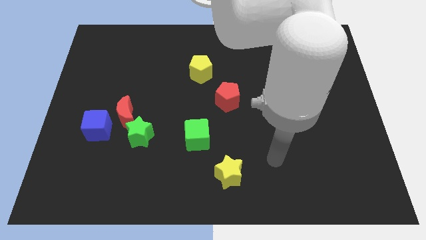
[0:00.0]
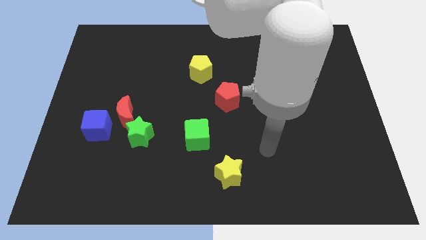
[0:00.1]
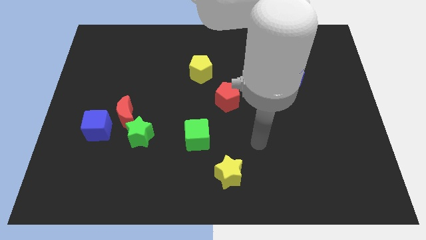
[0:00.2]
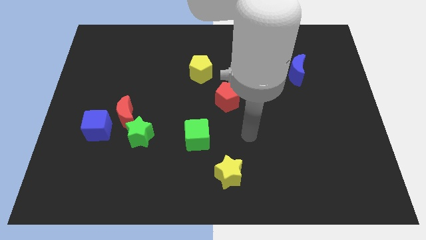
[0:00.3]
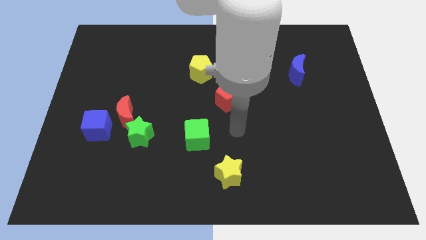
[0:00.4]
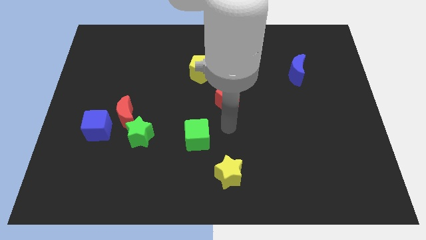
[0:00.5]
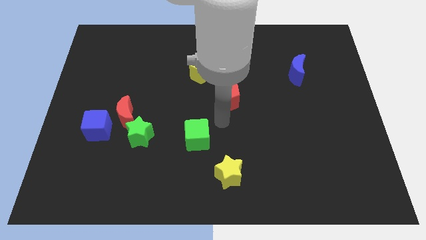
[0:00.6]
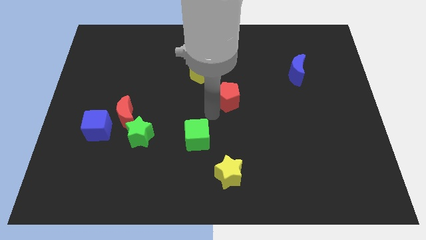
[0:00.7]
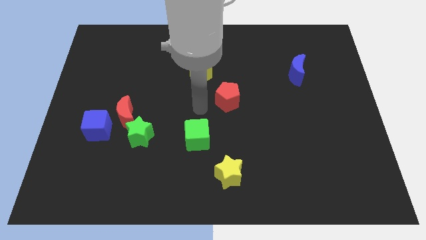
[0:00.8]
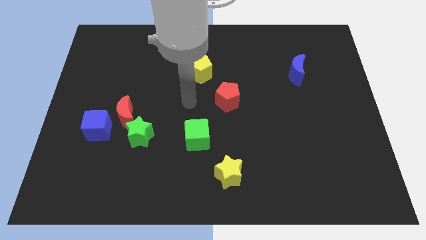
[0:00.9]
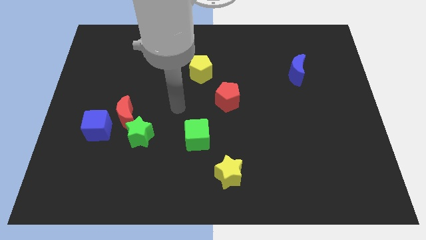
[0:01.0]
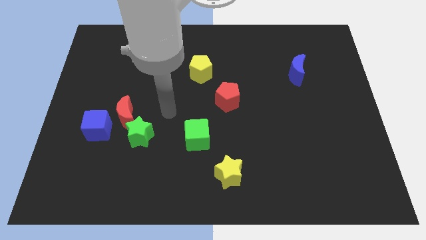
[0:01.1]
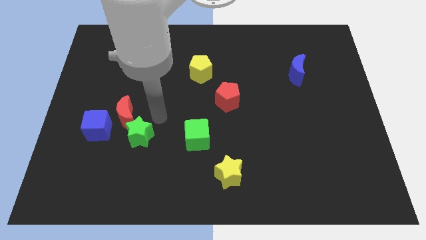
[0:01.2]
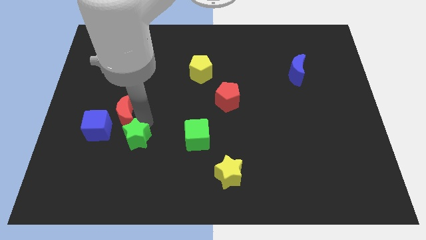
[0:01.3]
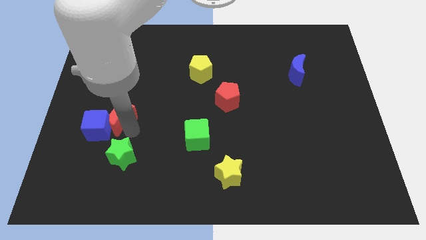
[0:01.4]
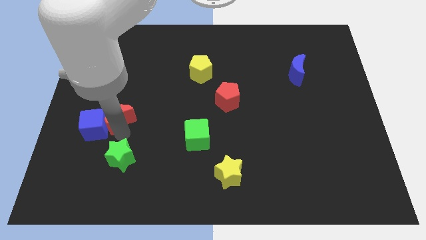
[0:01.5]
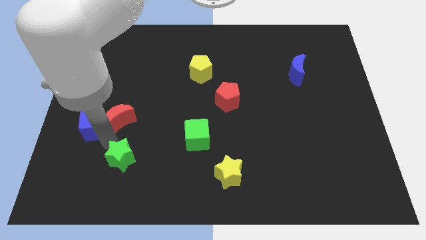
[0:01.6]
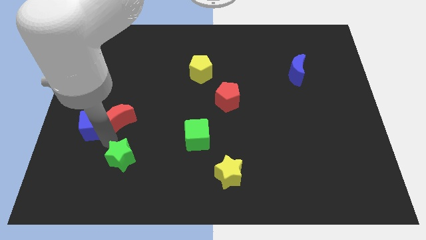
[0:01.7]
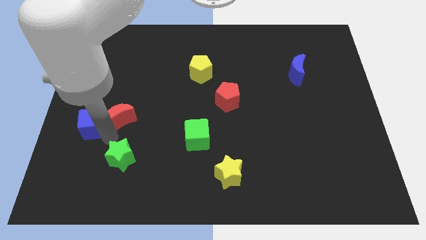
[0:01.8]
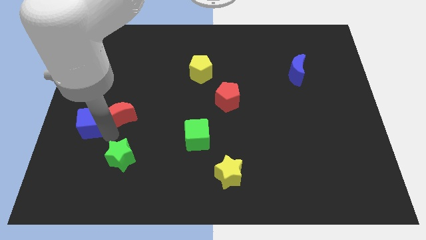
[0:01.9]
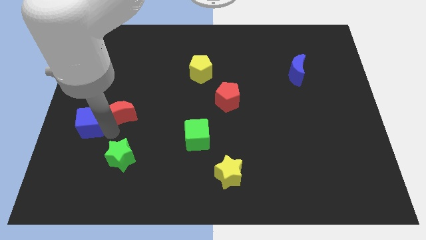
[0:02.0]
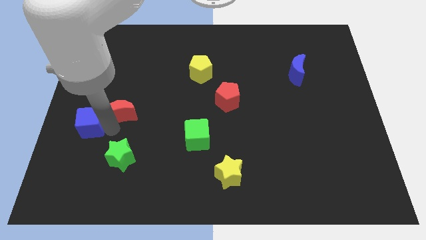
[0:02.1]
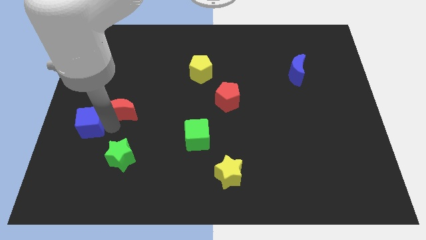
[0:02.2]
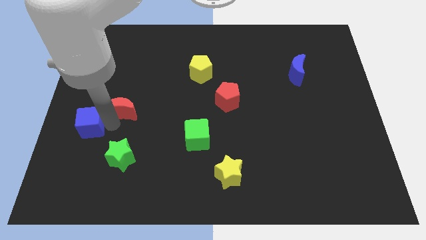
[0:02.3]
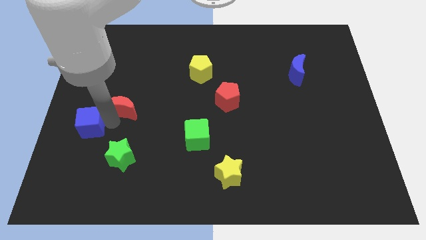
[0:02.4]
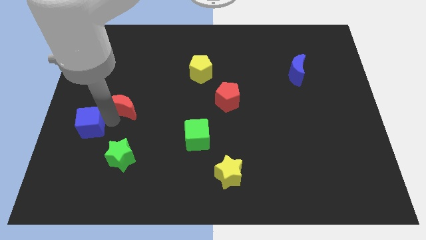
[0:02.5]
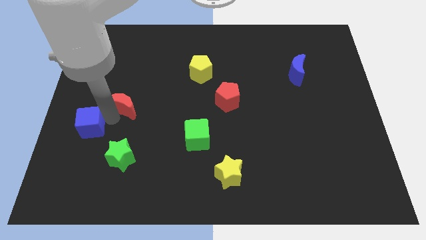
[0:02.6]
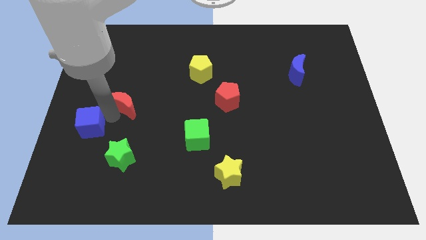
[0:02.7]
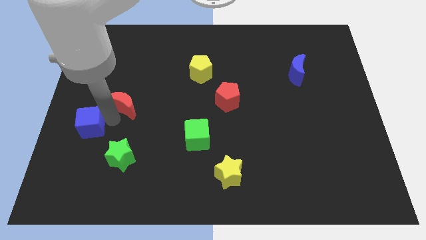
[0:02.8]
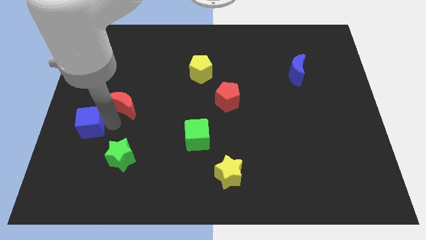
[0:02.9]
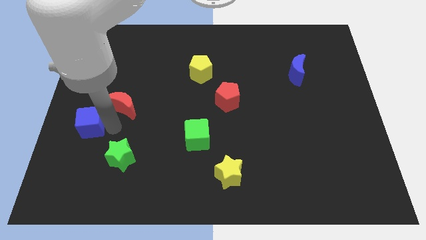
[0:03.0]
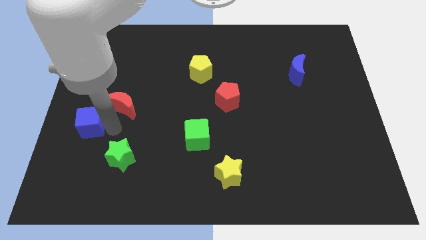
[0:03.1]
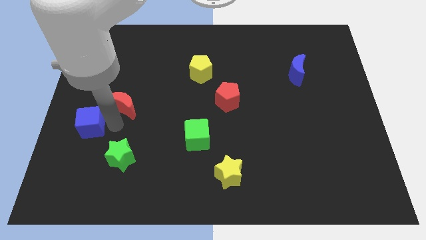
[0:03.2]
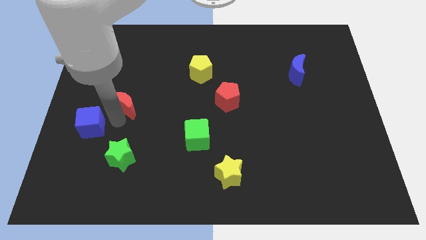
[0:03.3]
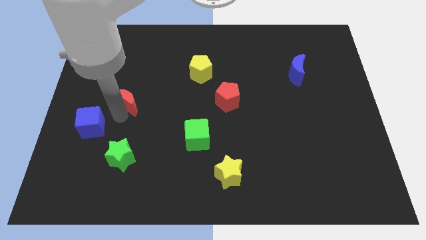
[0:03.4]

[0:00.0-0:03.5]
separate the red moon from the green star and blue cube

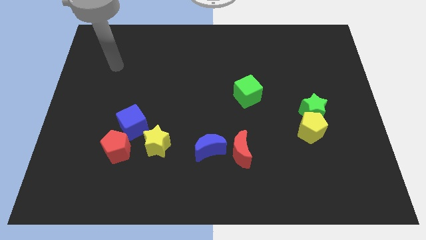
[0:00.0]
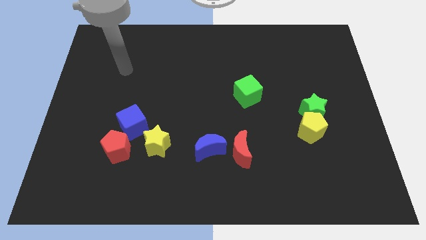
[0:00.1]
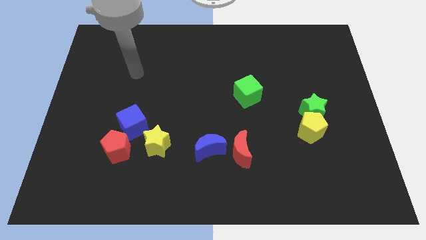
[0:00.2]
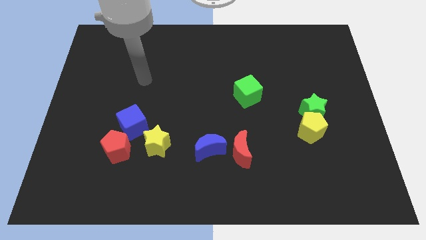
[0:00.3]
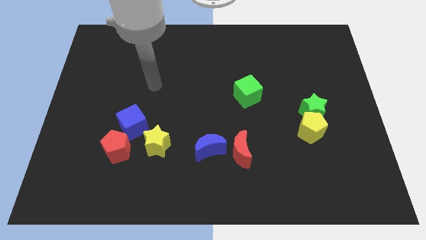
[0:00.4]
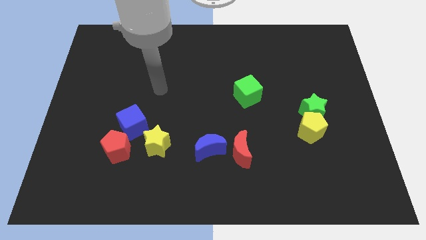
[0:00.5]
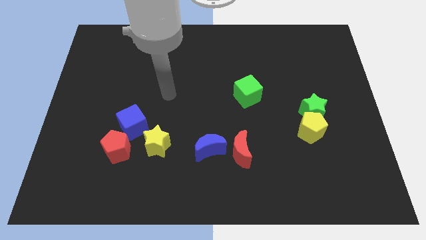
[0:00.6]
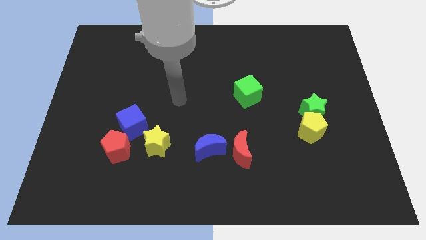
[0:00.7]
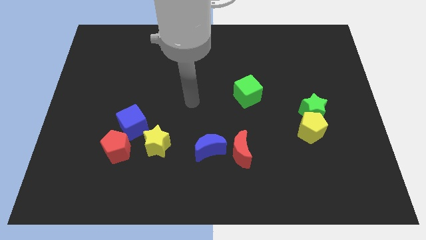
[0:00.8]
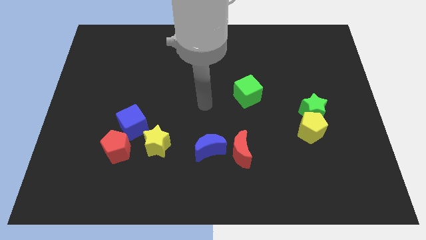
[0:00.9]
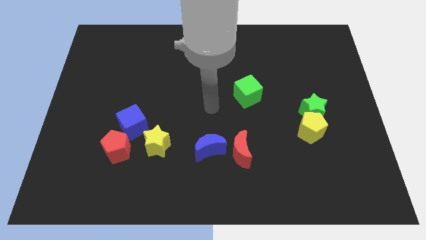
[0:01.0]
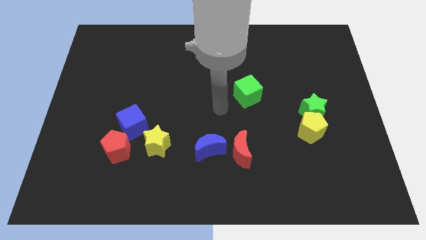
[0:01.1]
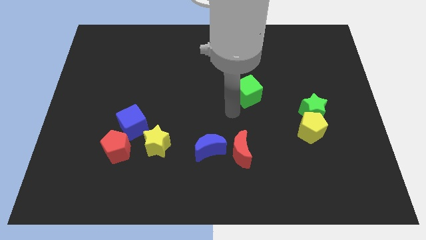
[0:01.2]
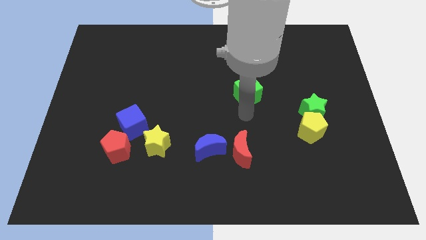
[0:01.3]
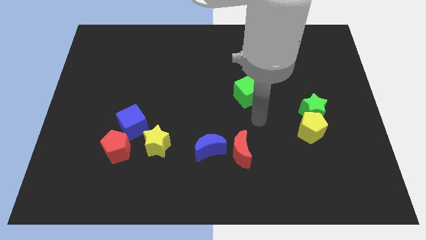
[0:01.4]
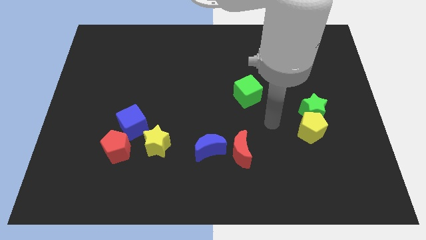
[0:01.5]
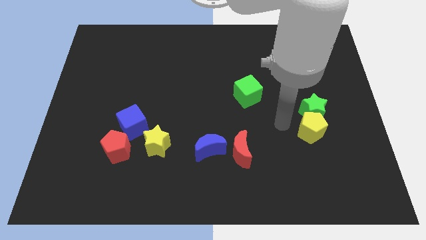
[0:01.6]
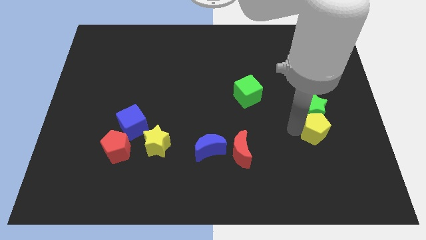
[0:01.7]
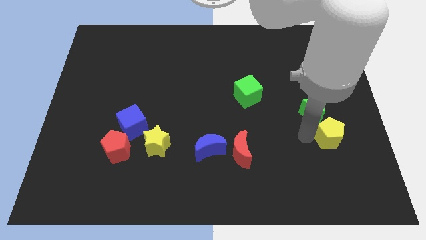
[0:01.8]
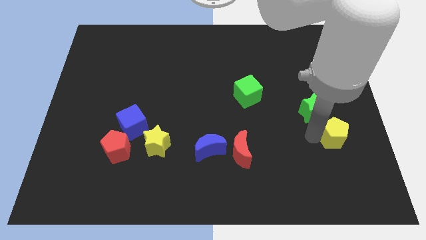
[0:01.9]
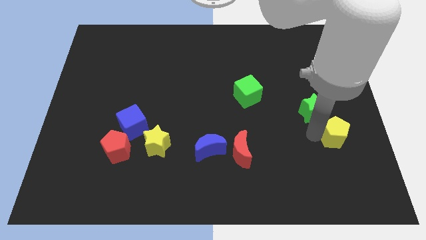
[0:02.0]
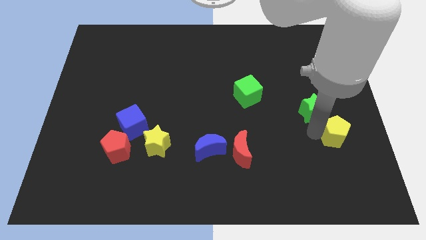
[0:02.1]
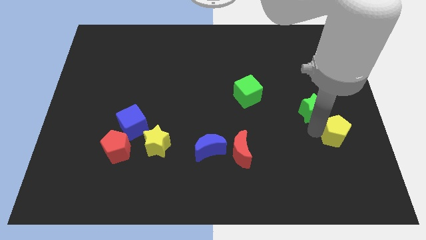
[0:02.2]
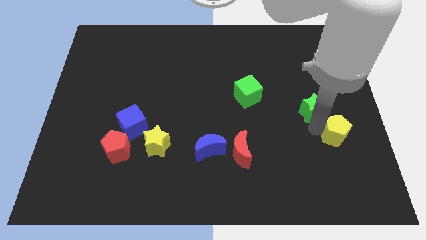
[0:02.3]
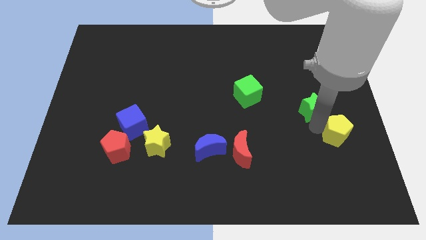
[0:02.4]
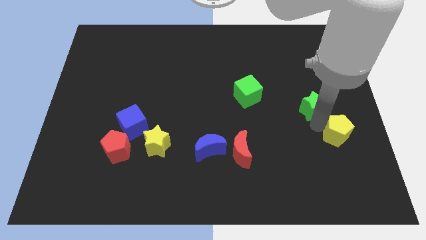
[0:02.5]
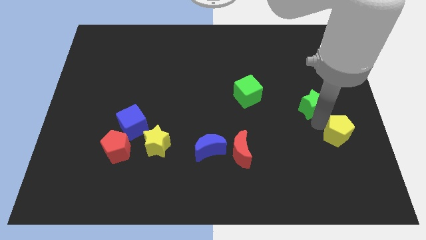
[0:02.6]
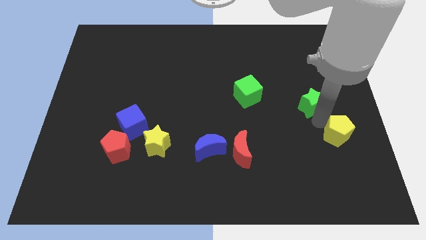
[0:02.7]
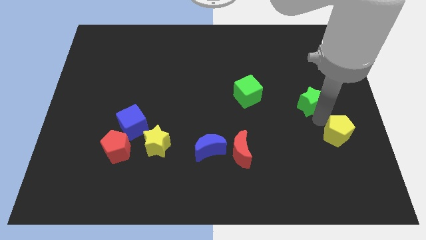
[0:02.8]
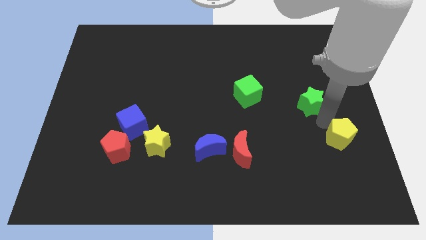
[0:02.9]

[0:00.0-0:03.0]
separate the green star from the yellow pentagon

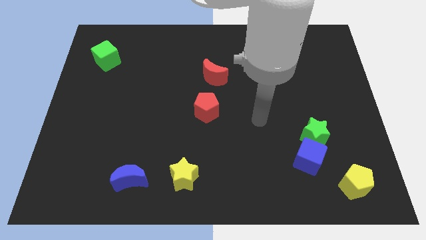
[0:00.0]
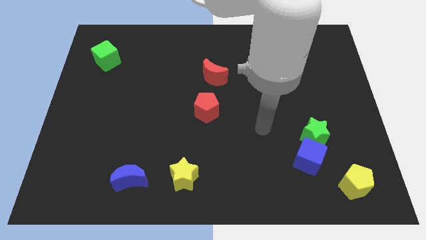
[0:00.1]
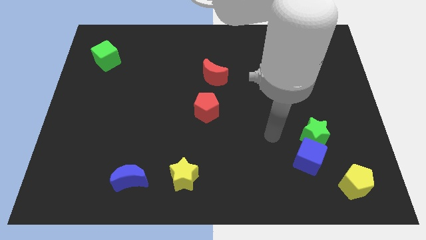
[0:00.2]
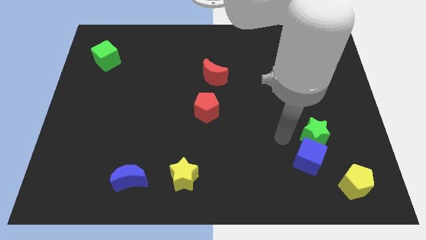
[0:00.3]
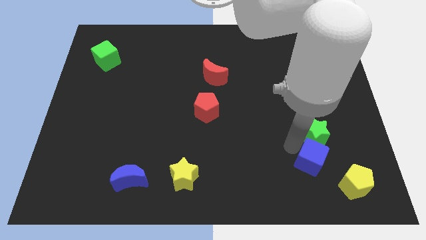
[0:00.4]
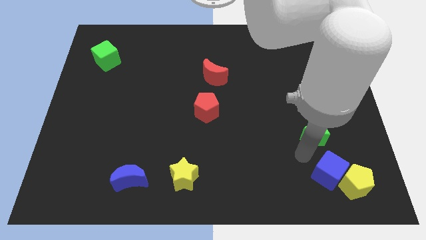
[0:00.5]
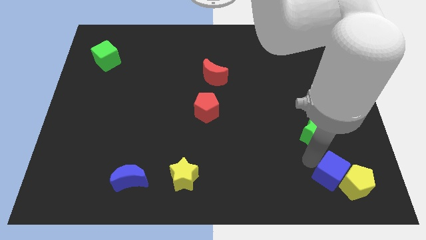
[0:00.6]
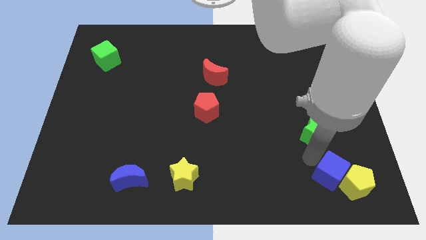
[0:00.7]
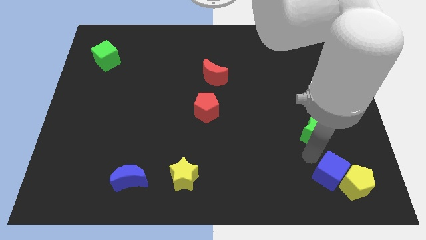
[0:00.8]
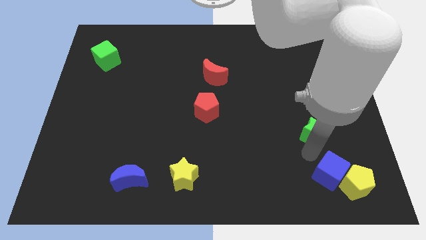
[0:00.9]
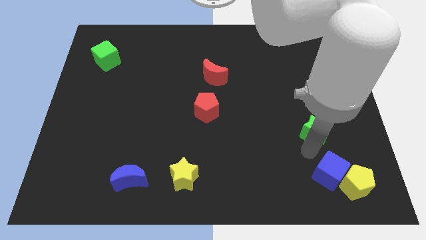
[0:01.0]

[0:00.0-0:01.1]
separate the green star from the blue cube

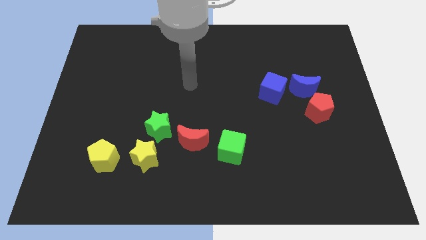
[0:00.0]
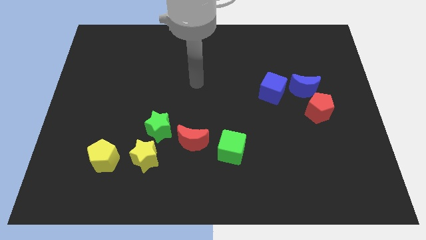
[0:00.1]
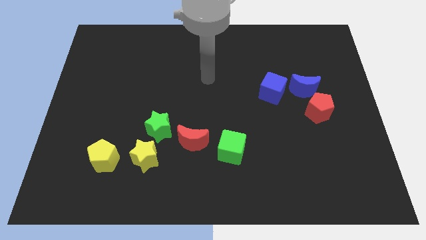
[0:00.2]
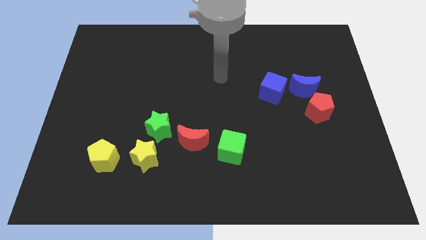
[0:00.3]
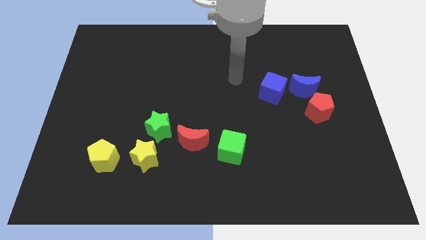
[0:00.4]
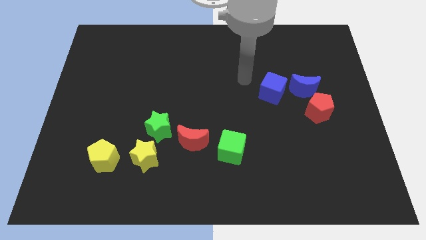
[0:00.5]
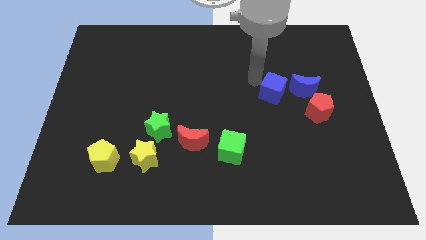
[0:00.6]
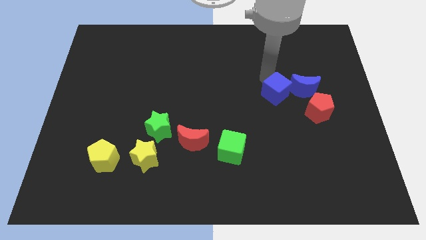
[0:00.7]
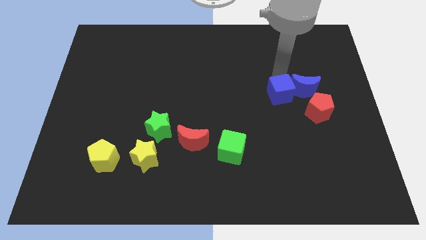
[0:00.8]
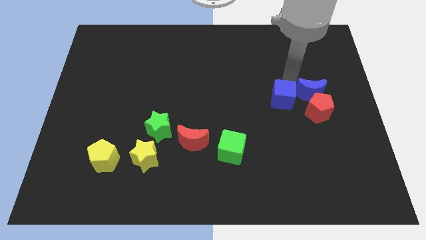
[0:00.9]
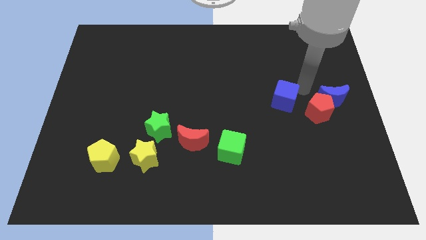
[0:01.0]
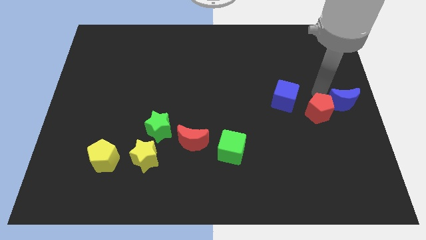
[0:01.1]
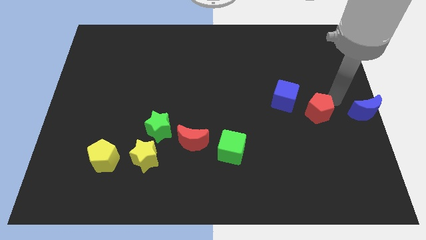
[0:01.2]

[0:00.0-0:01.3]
separate the red pentagon from the blue moon

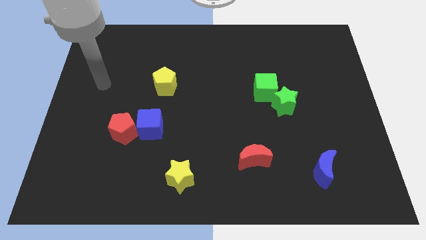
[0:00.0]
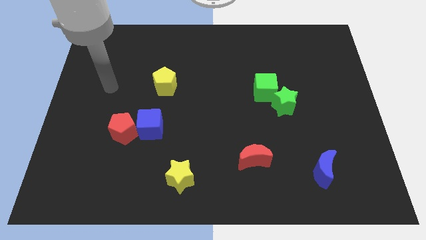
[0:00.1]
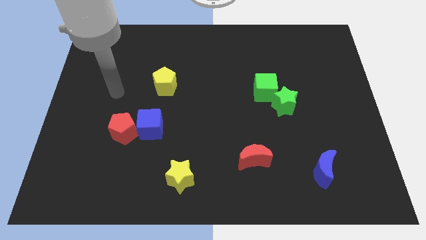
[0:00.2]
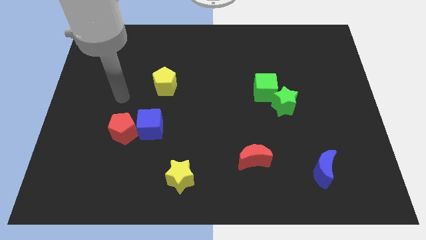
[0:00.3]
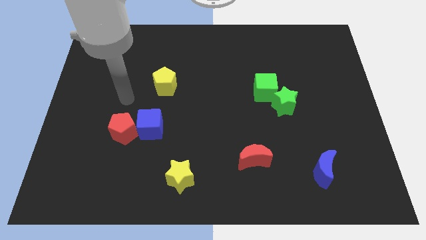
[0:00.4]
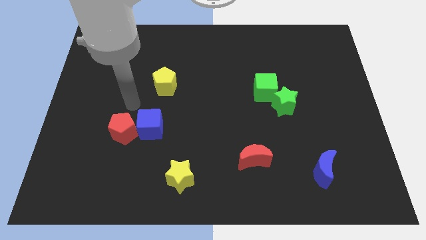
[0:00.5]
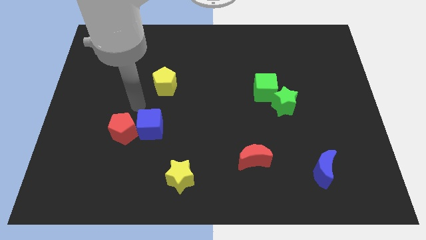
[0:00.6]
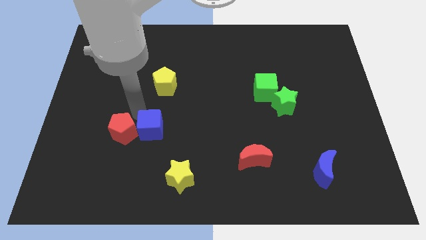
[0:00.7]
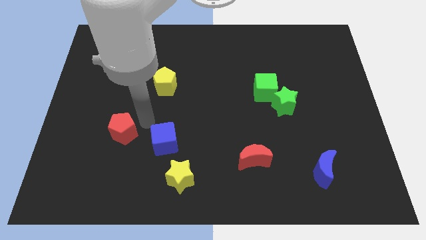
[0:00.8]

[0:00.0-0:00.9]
pull the red pentagon apart from the blue cube
